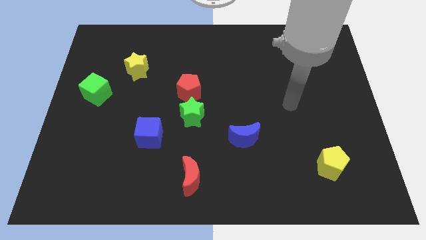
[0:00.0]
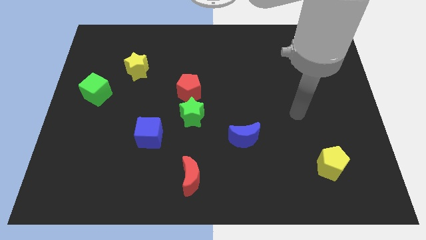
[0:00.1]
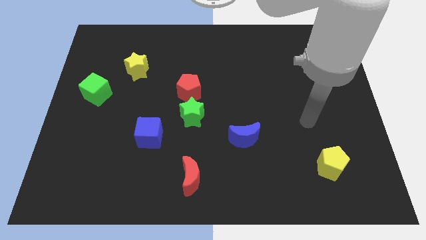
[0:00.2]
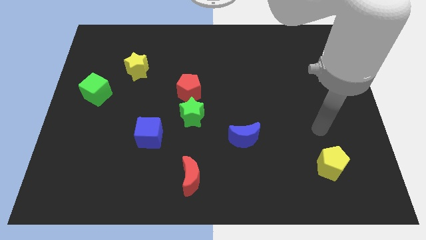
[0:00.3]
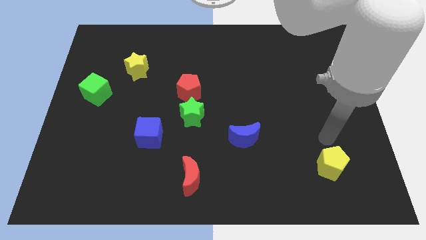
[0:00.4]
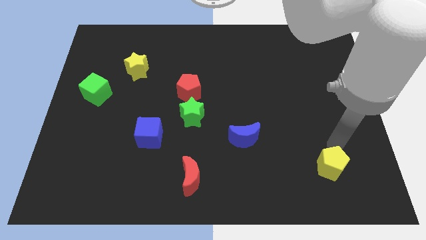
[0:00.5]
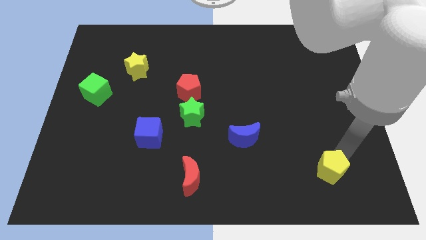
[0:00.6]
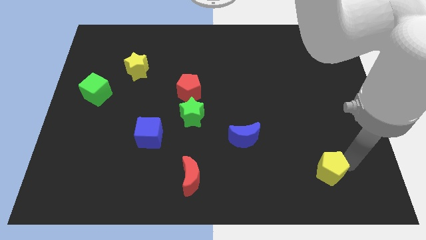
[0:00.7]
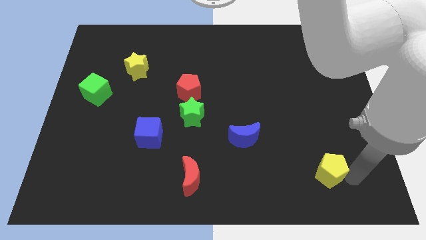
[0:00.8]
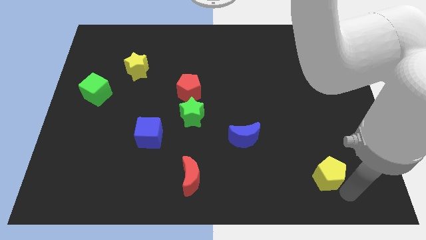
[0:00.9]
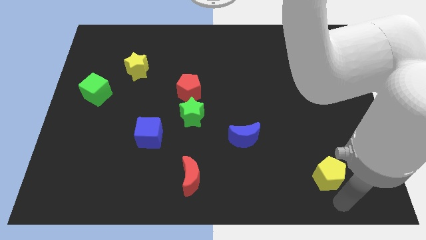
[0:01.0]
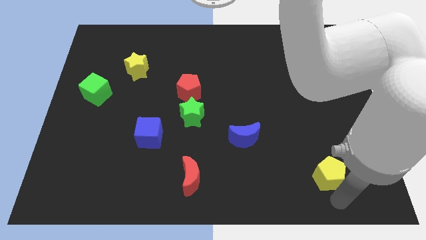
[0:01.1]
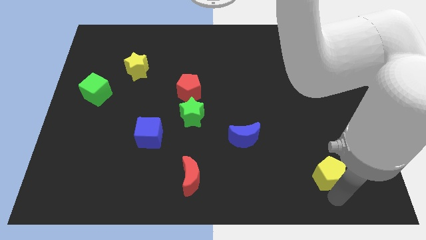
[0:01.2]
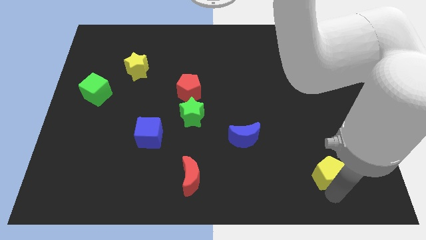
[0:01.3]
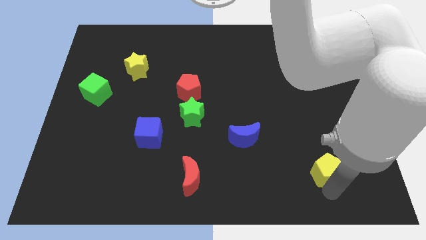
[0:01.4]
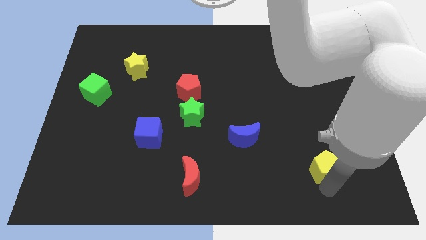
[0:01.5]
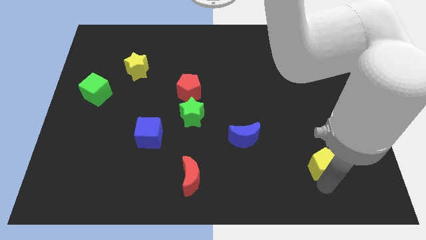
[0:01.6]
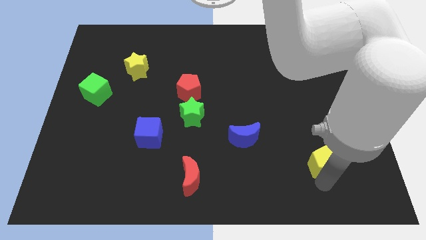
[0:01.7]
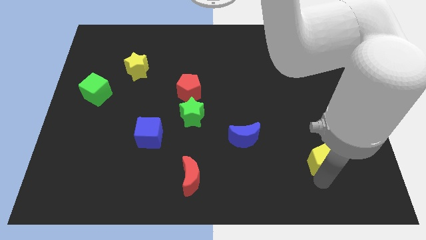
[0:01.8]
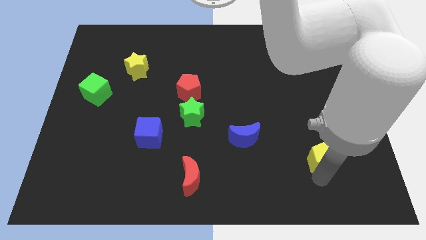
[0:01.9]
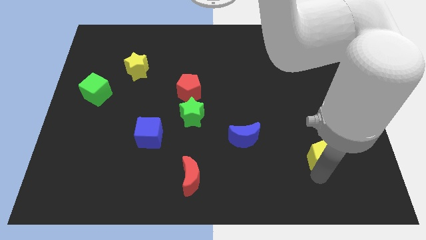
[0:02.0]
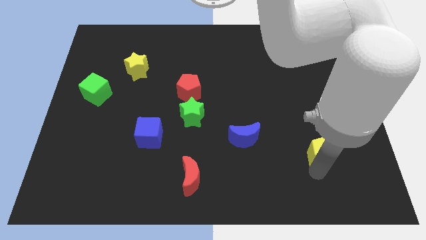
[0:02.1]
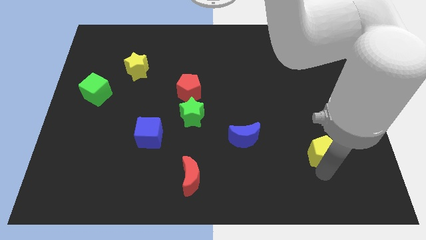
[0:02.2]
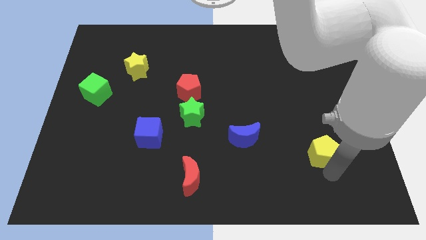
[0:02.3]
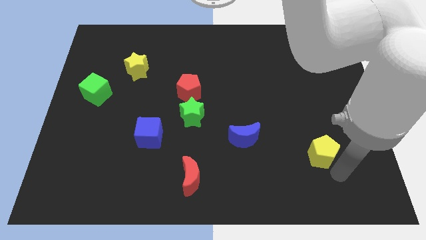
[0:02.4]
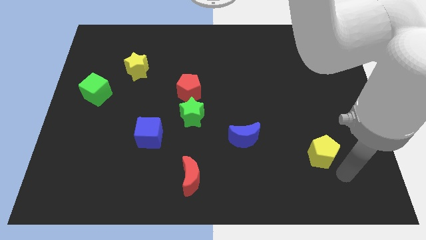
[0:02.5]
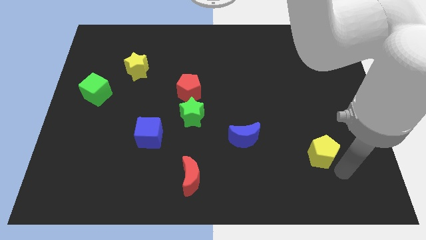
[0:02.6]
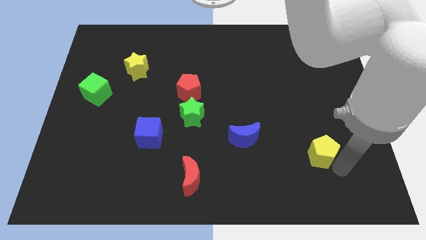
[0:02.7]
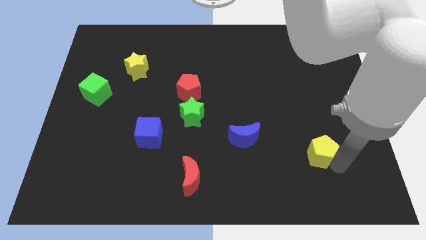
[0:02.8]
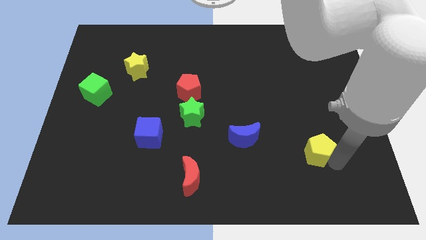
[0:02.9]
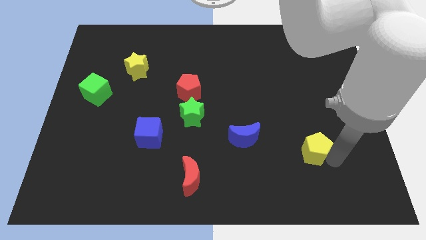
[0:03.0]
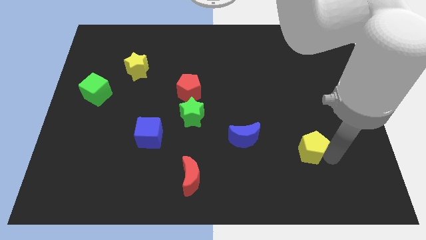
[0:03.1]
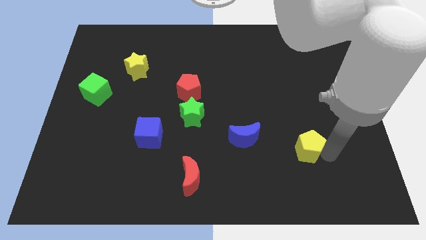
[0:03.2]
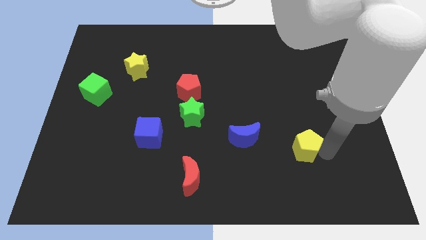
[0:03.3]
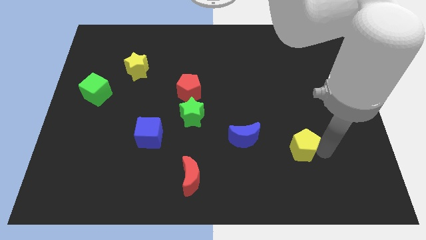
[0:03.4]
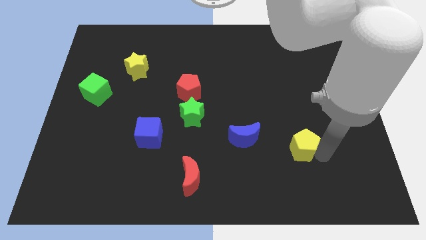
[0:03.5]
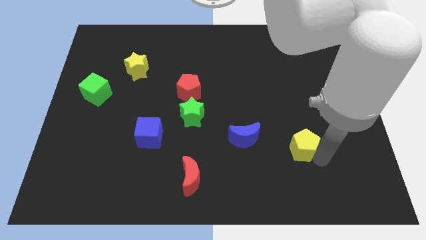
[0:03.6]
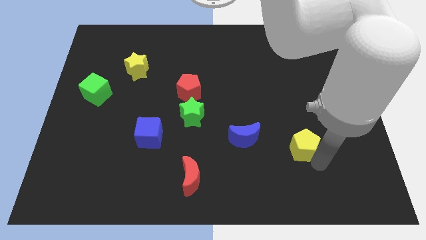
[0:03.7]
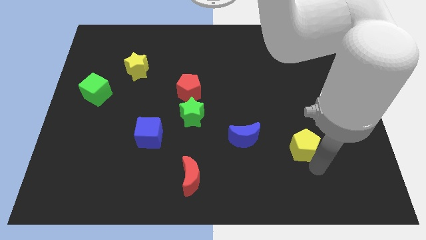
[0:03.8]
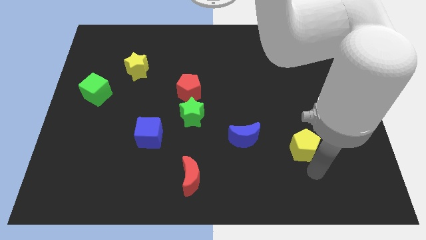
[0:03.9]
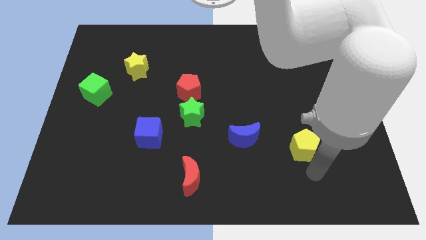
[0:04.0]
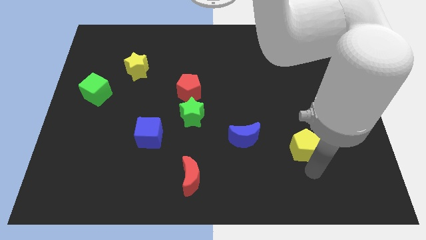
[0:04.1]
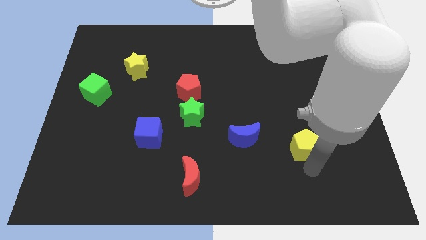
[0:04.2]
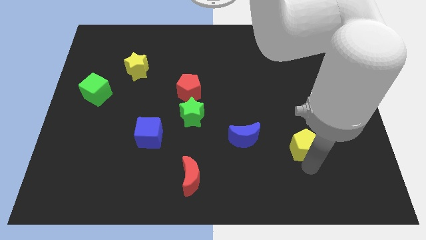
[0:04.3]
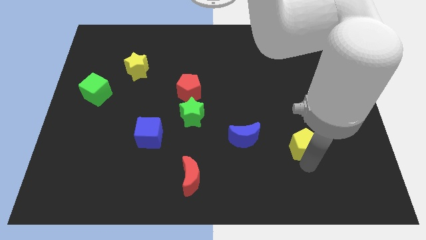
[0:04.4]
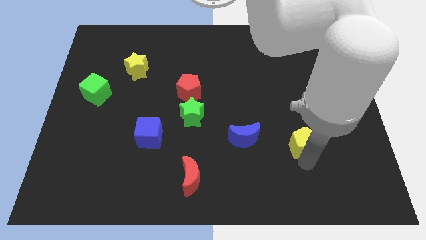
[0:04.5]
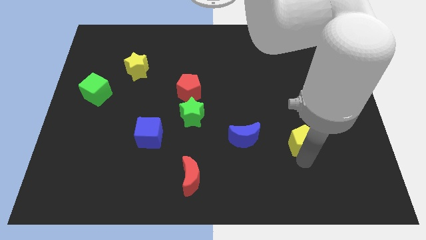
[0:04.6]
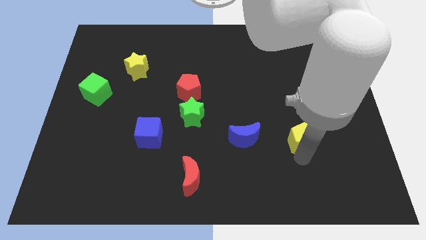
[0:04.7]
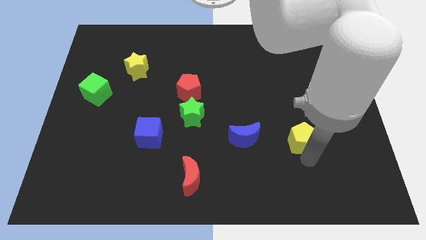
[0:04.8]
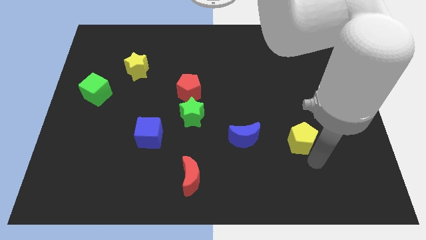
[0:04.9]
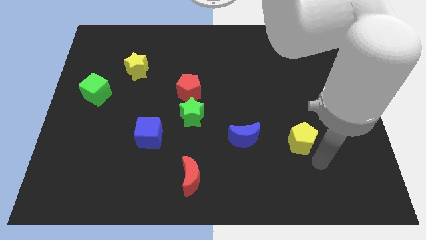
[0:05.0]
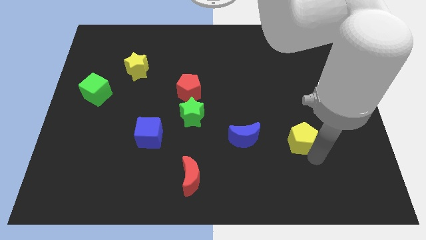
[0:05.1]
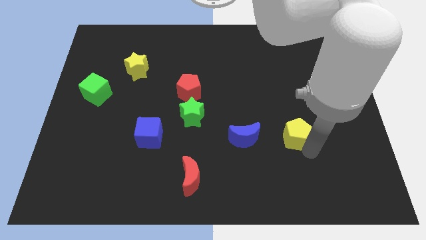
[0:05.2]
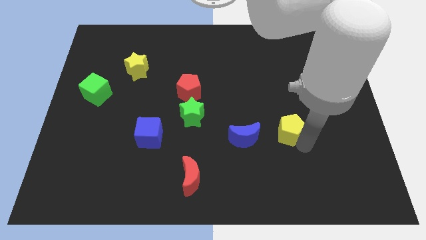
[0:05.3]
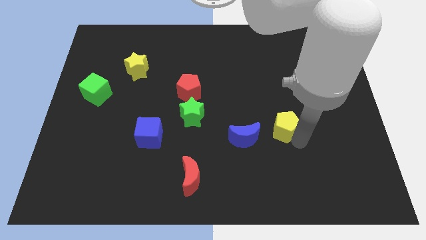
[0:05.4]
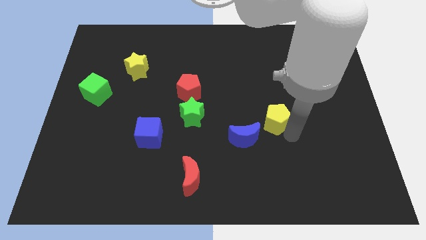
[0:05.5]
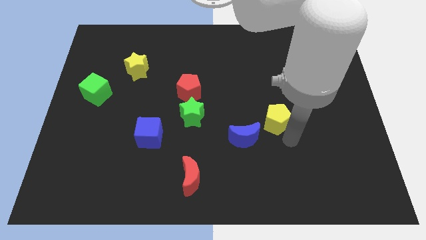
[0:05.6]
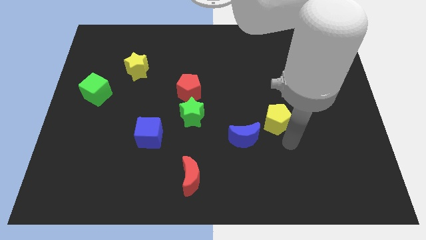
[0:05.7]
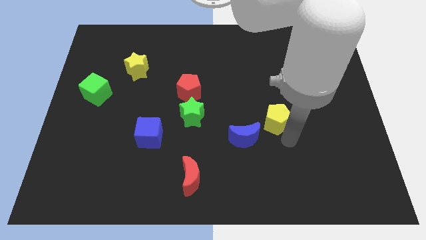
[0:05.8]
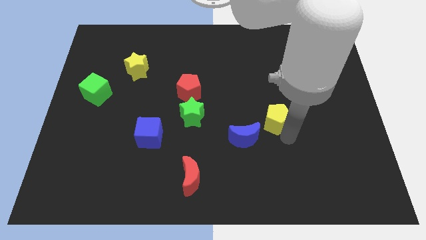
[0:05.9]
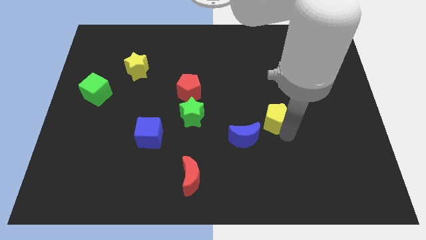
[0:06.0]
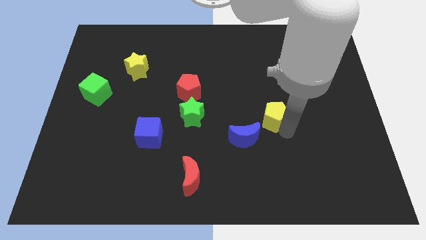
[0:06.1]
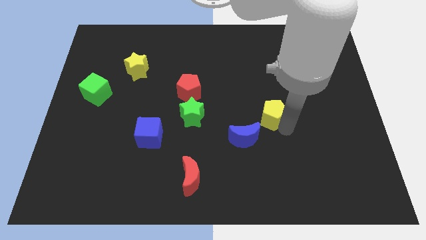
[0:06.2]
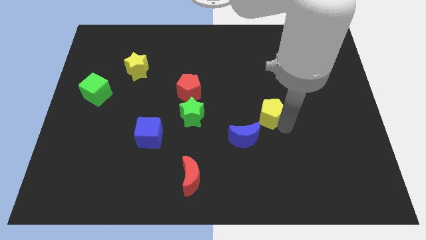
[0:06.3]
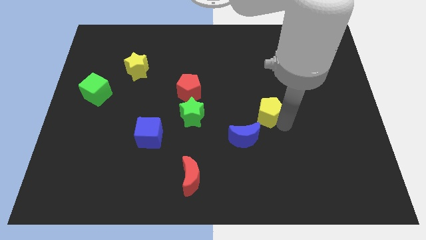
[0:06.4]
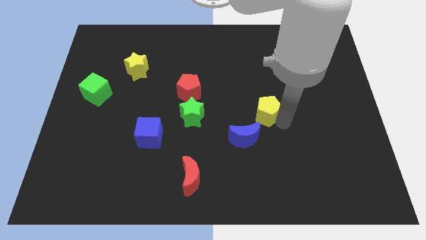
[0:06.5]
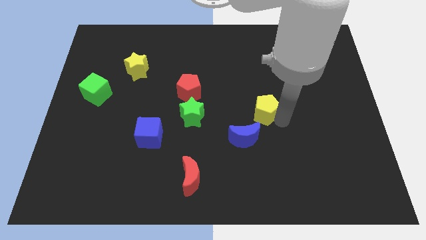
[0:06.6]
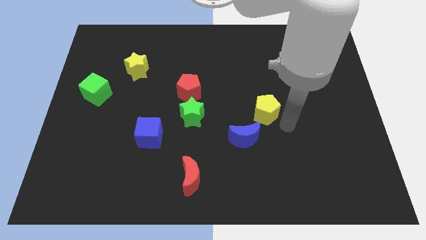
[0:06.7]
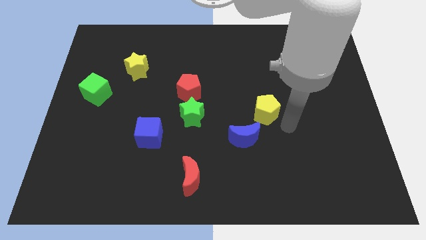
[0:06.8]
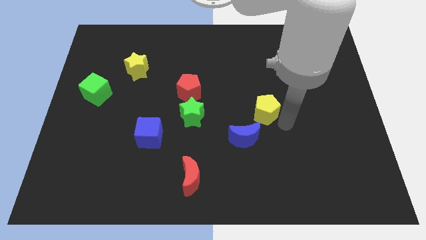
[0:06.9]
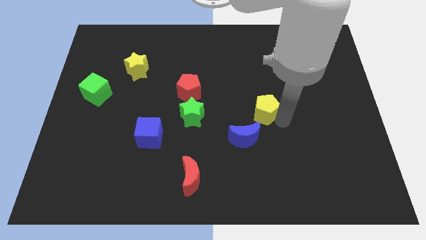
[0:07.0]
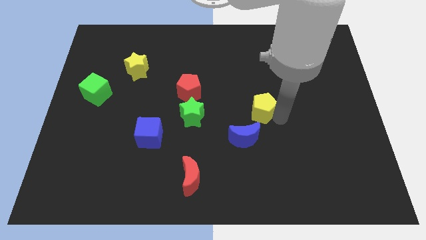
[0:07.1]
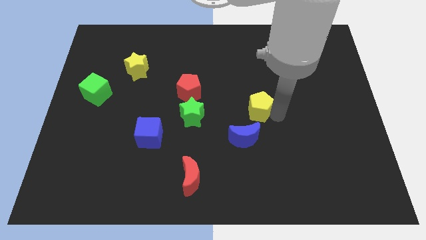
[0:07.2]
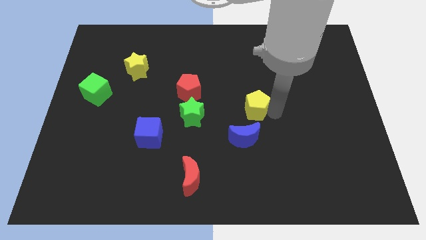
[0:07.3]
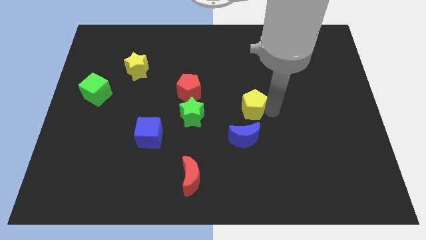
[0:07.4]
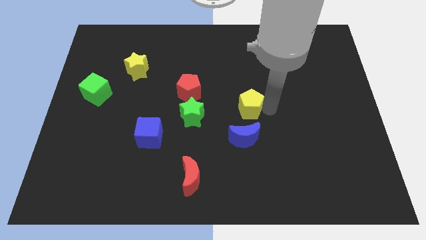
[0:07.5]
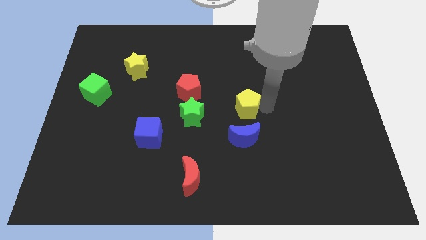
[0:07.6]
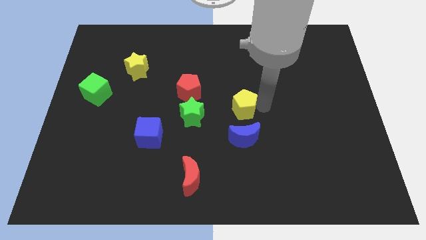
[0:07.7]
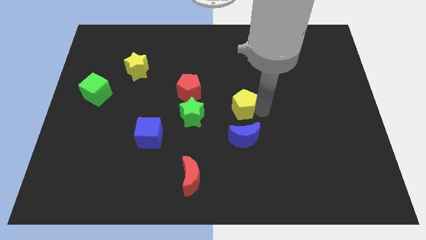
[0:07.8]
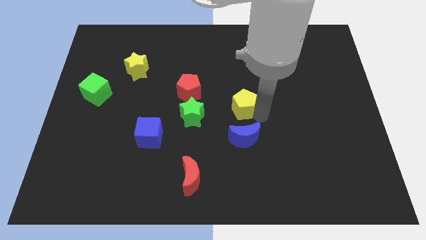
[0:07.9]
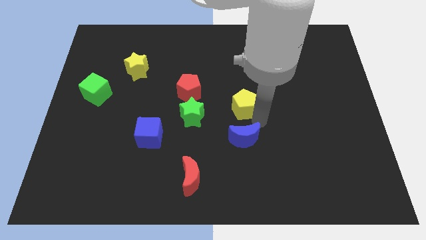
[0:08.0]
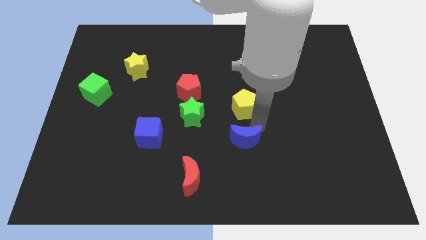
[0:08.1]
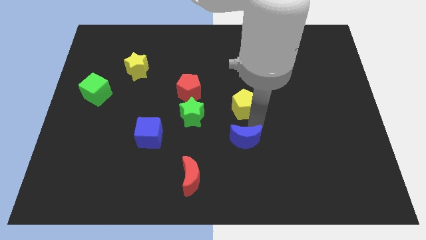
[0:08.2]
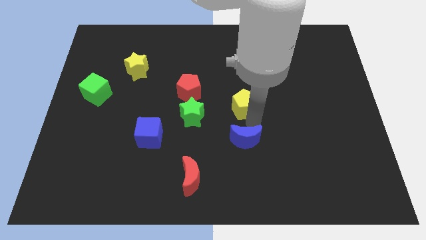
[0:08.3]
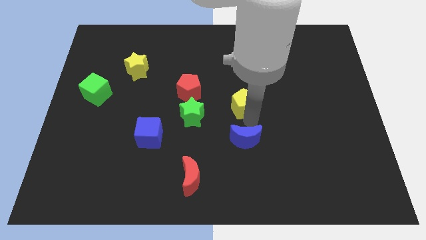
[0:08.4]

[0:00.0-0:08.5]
push the yellow pentagon to the right of the red pentagon
